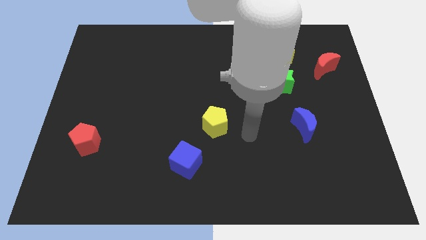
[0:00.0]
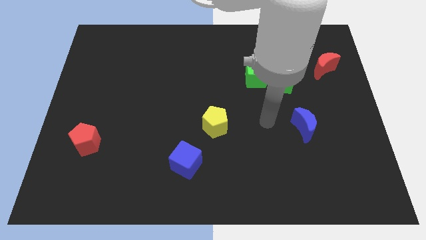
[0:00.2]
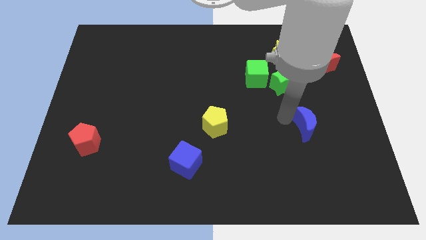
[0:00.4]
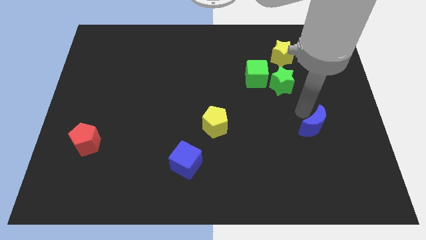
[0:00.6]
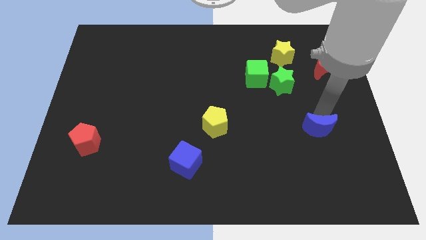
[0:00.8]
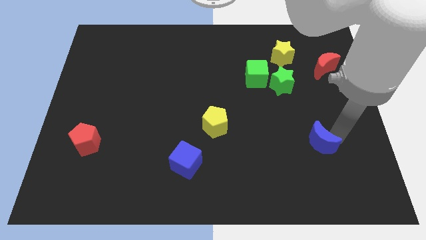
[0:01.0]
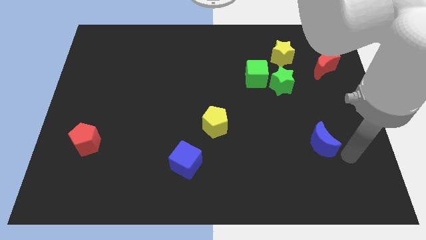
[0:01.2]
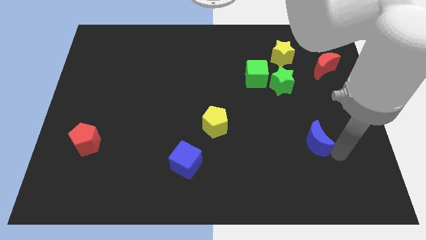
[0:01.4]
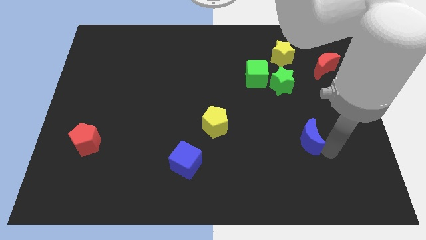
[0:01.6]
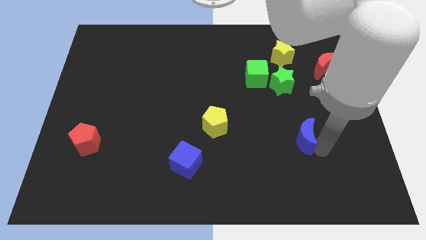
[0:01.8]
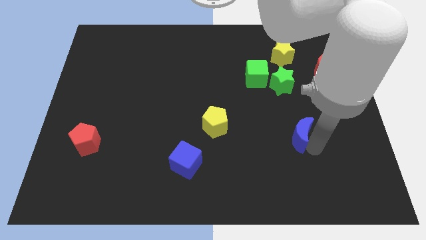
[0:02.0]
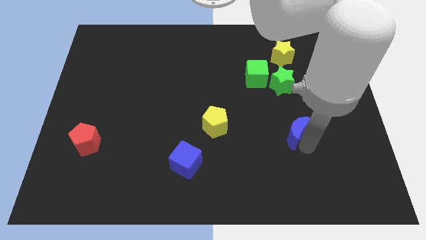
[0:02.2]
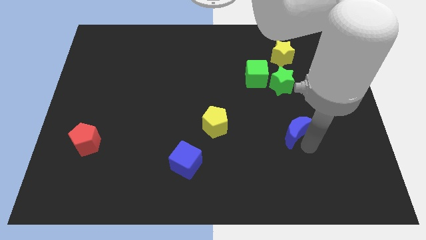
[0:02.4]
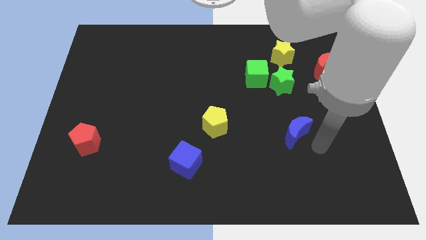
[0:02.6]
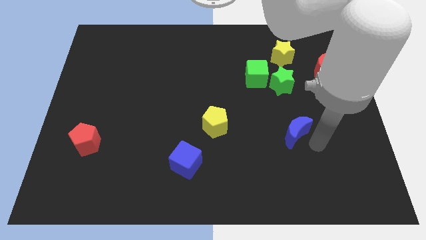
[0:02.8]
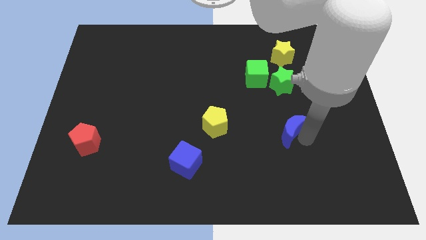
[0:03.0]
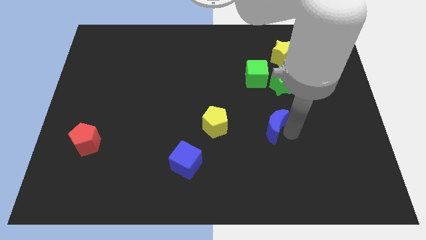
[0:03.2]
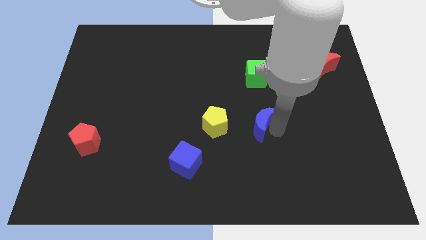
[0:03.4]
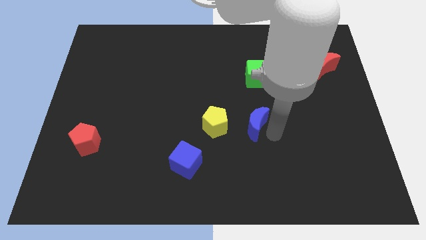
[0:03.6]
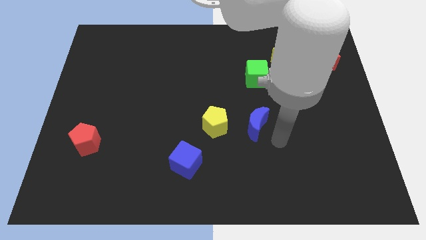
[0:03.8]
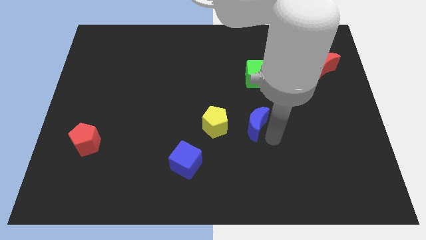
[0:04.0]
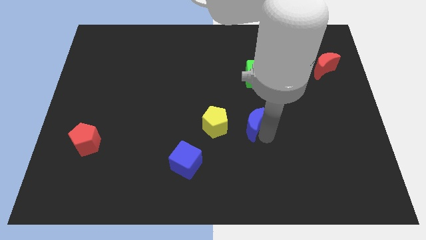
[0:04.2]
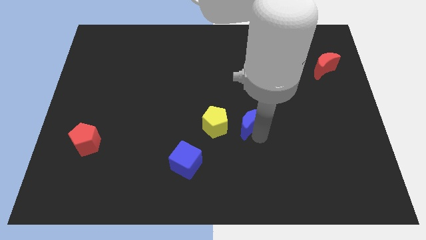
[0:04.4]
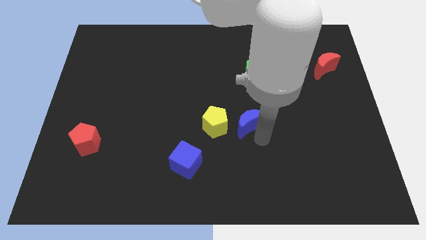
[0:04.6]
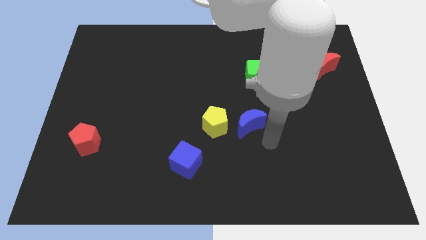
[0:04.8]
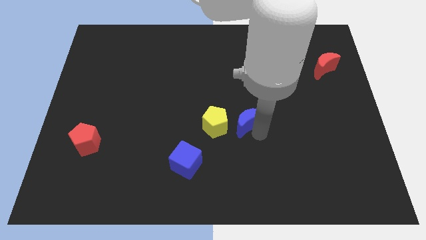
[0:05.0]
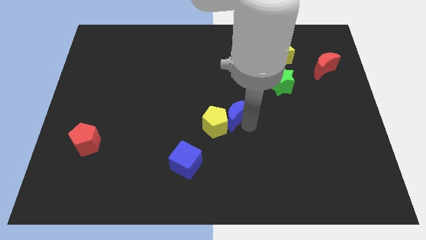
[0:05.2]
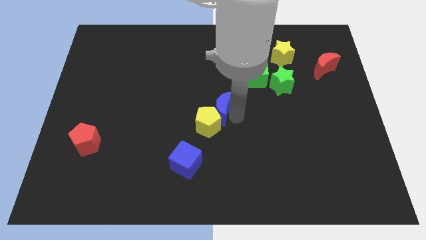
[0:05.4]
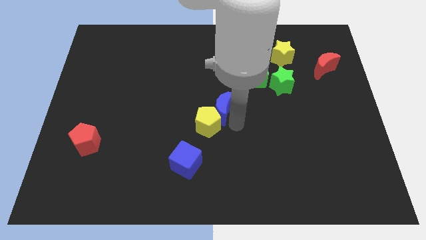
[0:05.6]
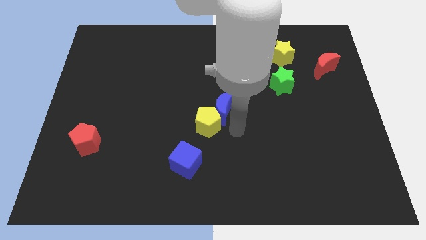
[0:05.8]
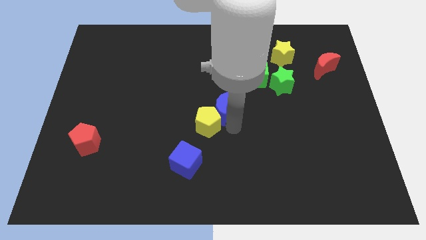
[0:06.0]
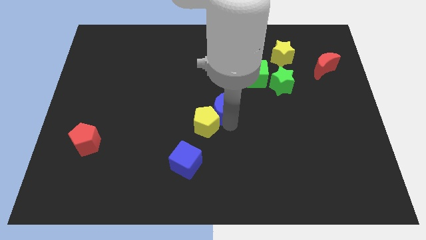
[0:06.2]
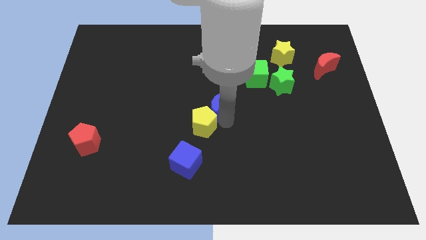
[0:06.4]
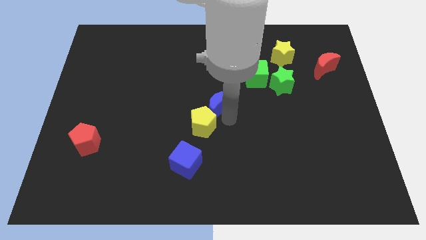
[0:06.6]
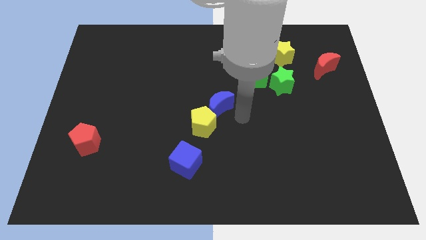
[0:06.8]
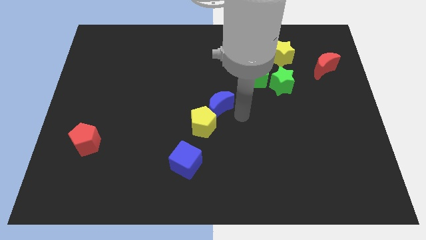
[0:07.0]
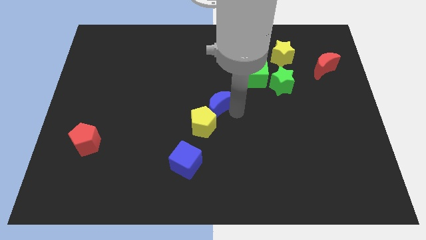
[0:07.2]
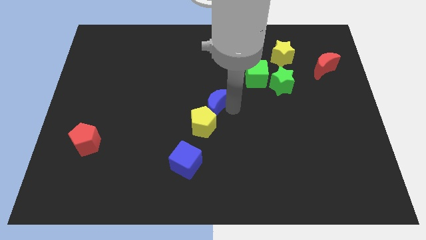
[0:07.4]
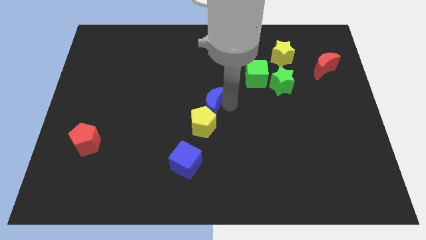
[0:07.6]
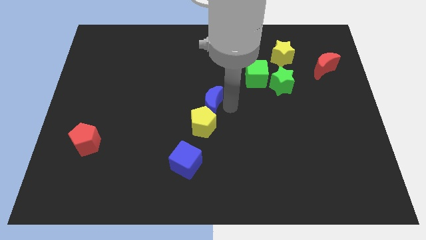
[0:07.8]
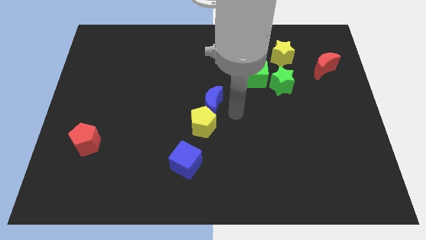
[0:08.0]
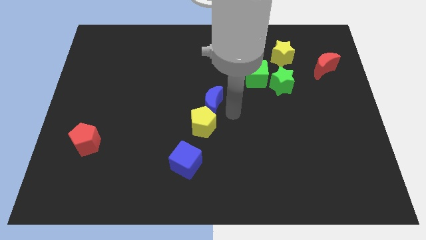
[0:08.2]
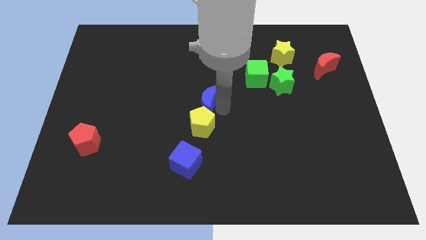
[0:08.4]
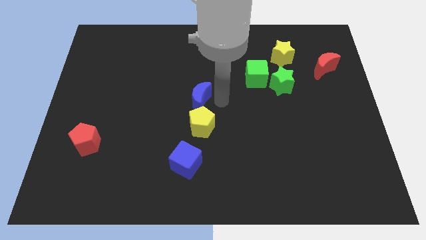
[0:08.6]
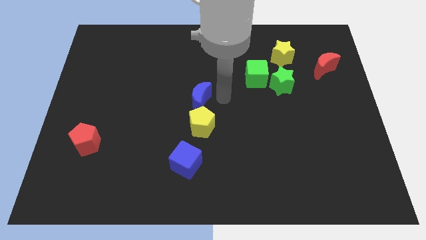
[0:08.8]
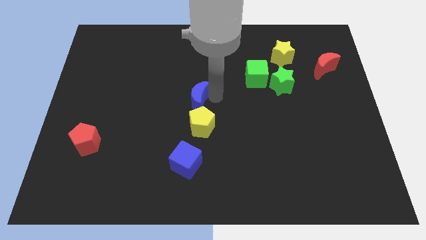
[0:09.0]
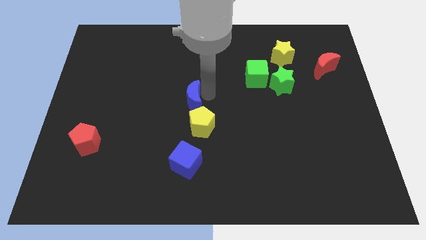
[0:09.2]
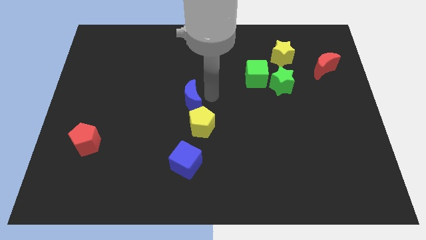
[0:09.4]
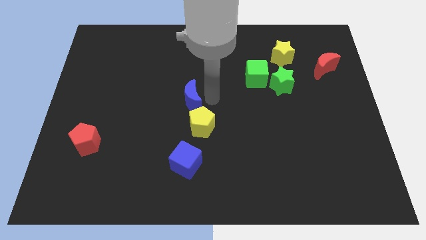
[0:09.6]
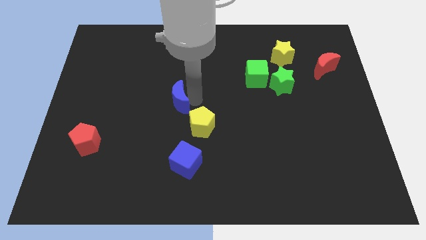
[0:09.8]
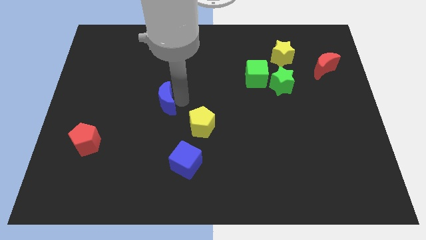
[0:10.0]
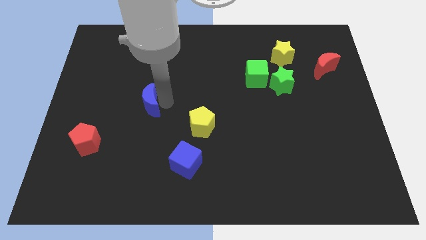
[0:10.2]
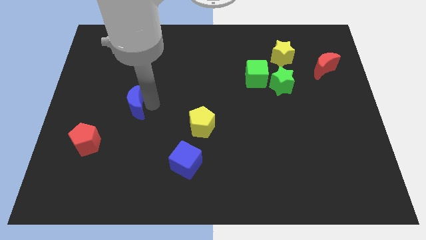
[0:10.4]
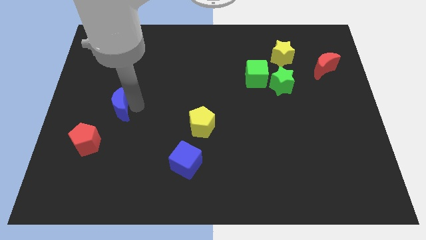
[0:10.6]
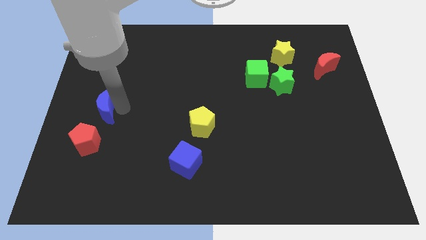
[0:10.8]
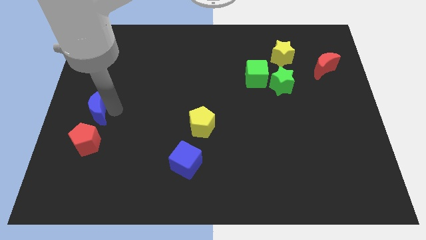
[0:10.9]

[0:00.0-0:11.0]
slide the blue moon to the left side of the board
